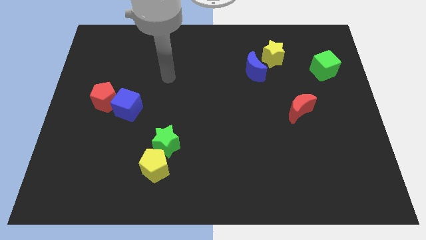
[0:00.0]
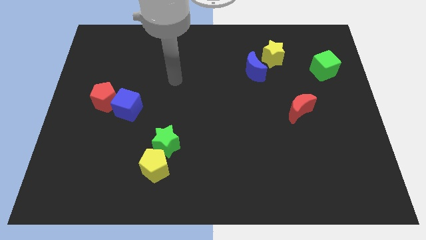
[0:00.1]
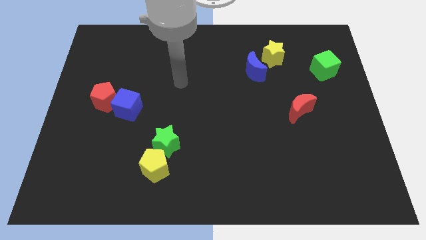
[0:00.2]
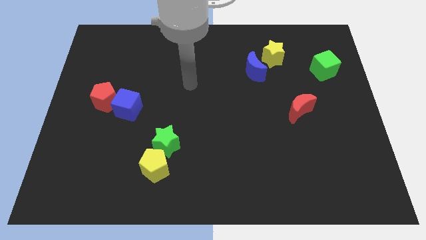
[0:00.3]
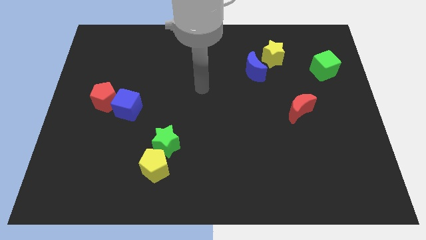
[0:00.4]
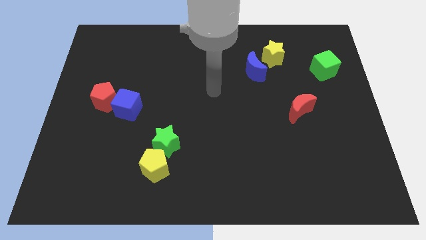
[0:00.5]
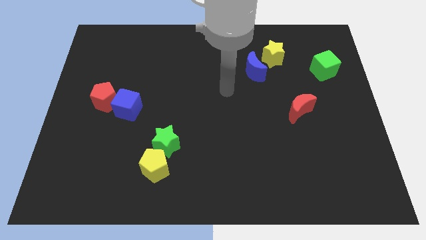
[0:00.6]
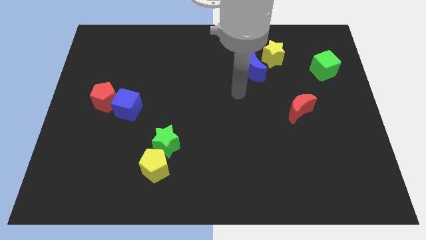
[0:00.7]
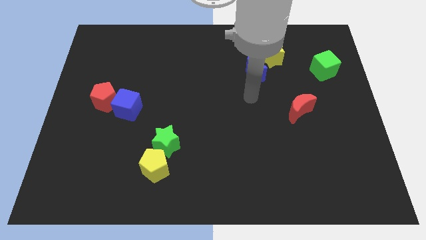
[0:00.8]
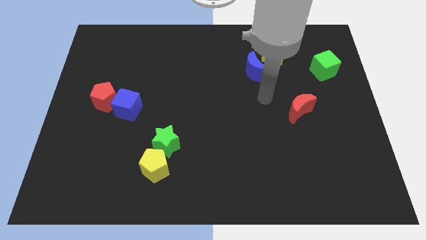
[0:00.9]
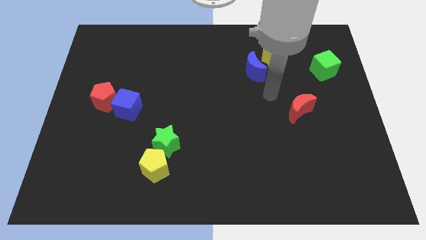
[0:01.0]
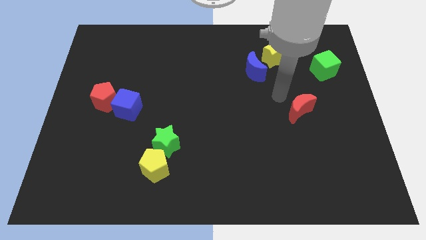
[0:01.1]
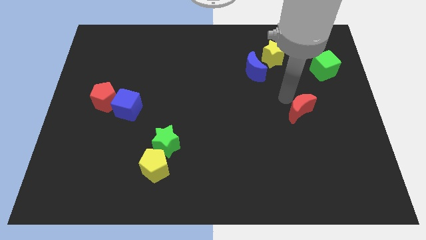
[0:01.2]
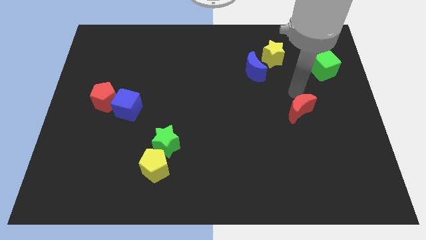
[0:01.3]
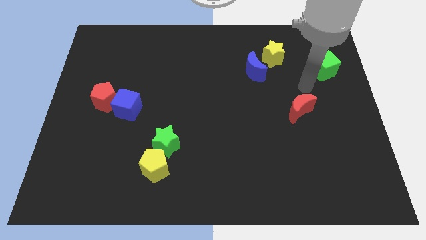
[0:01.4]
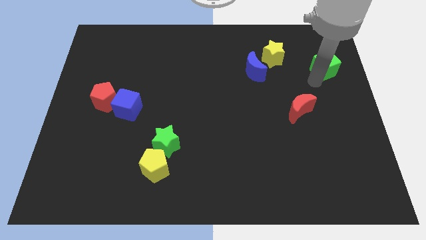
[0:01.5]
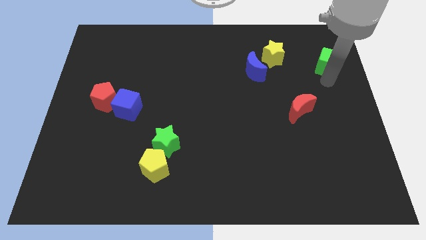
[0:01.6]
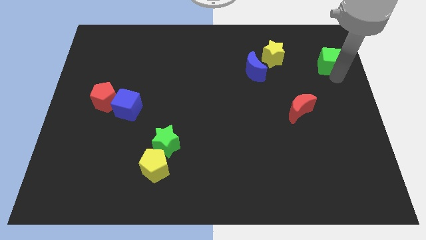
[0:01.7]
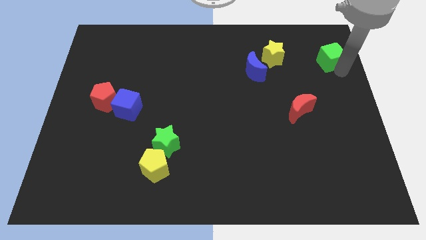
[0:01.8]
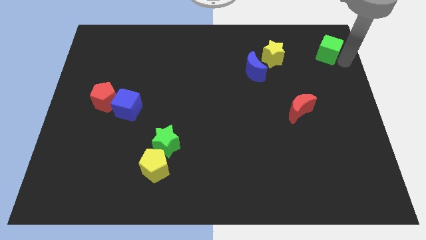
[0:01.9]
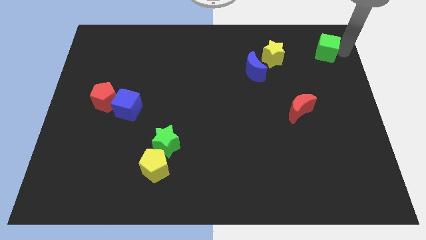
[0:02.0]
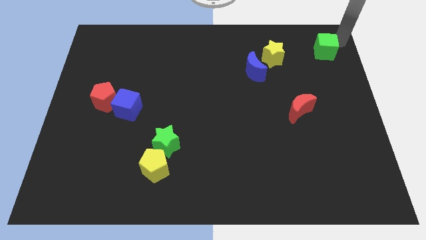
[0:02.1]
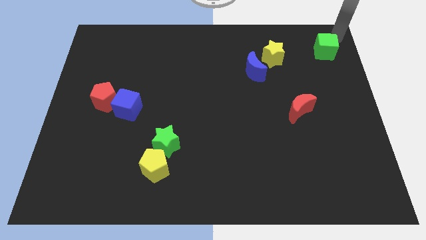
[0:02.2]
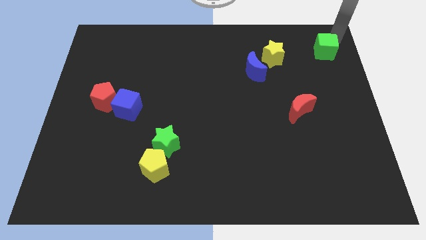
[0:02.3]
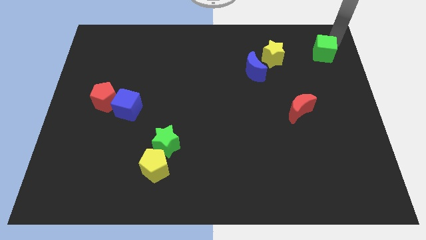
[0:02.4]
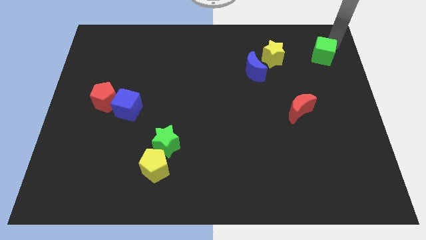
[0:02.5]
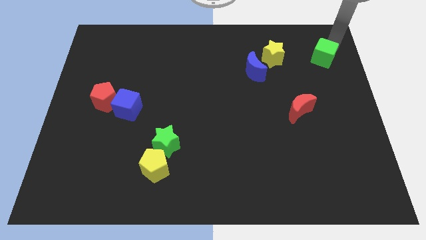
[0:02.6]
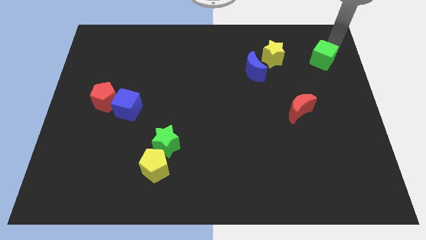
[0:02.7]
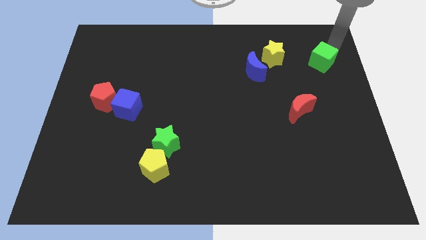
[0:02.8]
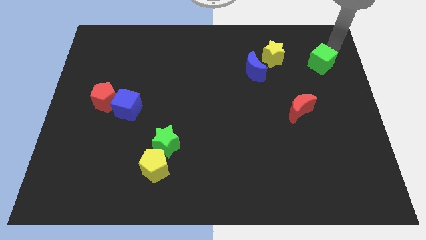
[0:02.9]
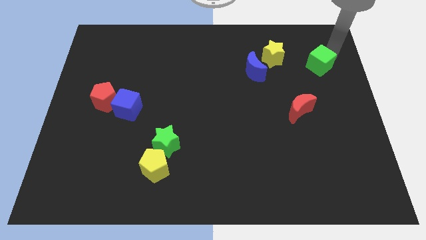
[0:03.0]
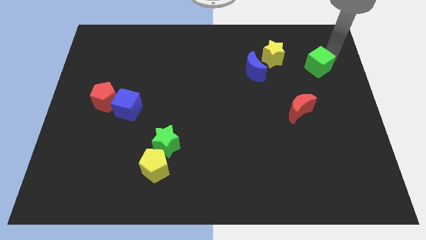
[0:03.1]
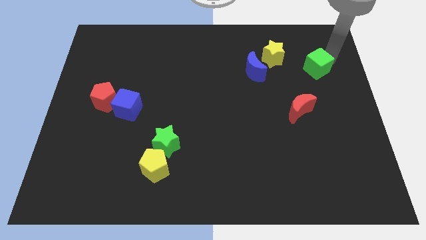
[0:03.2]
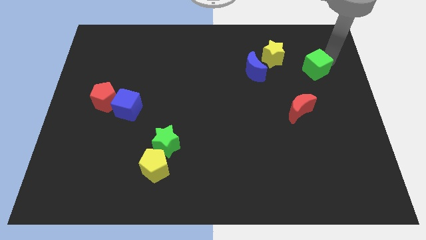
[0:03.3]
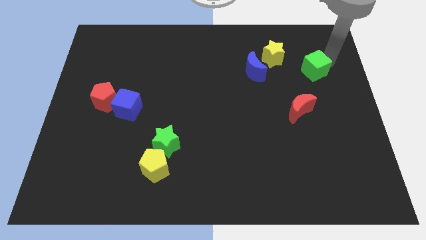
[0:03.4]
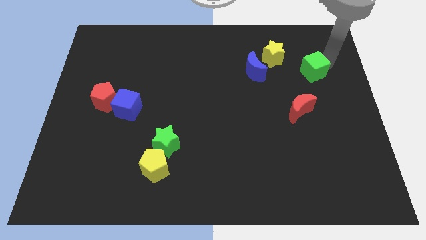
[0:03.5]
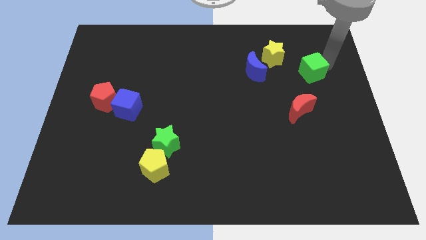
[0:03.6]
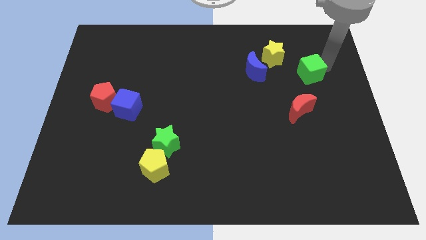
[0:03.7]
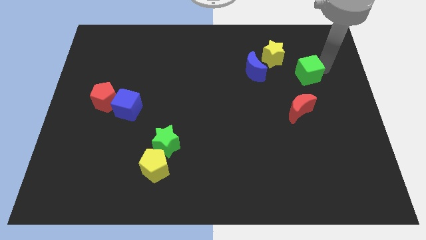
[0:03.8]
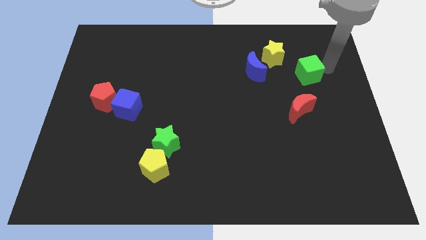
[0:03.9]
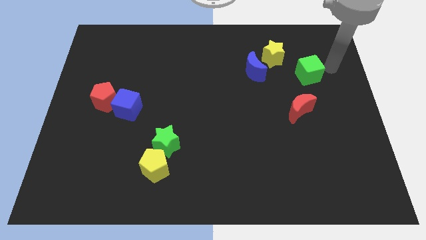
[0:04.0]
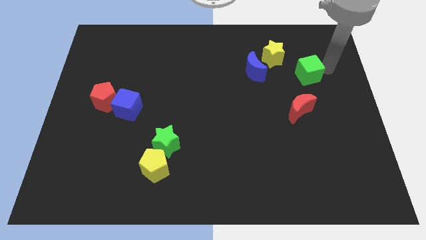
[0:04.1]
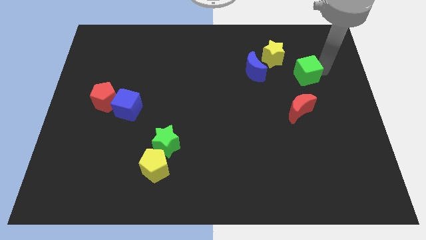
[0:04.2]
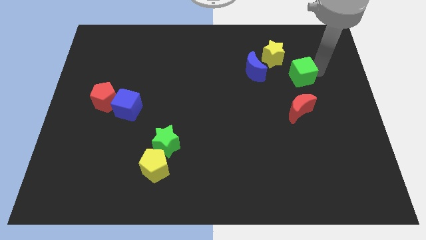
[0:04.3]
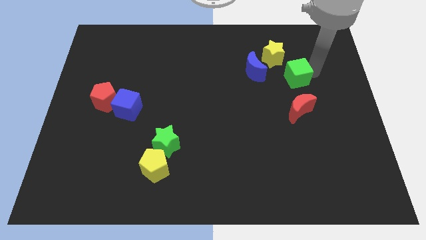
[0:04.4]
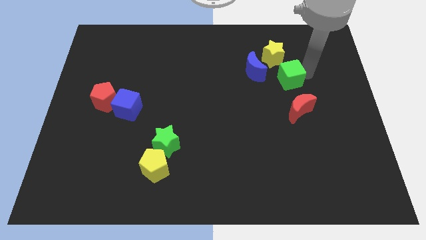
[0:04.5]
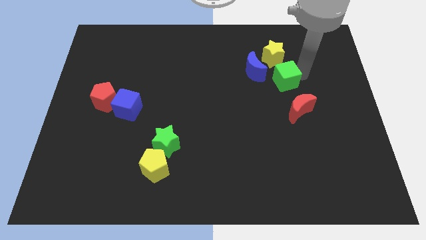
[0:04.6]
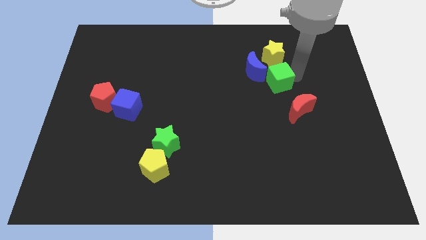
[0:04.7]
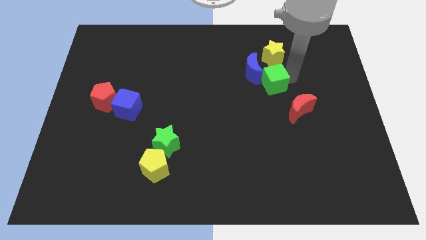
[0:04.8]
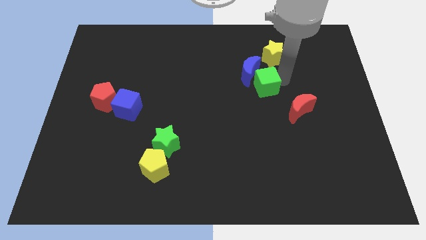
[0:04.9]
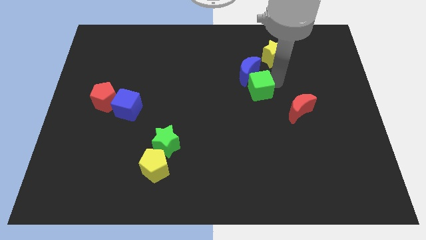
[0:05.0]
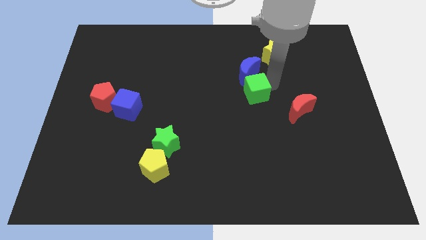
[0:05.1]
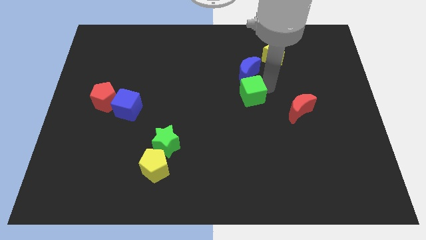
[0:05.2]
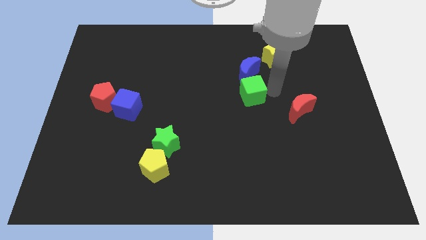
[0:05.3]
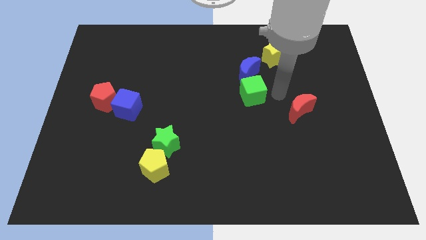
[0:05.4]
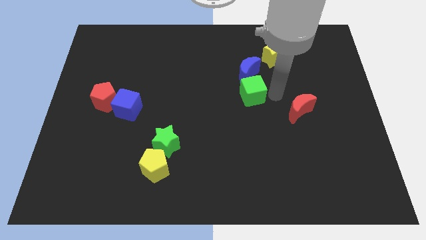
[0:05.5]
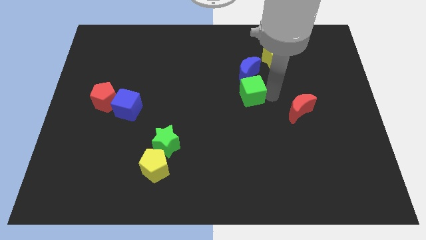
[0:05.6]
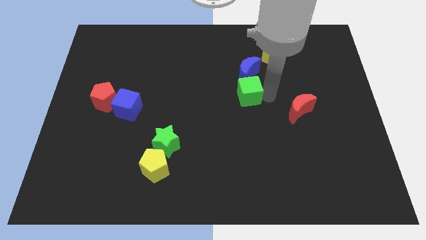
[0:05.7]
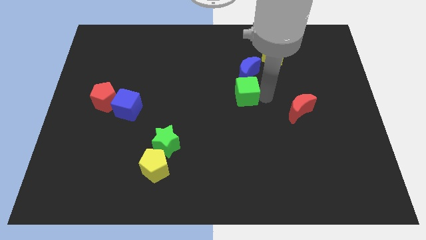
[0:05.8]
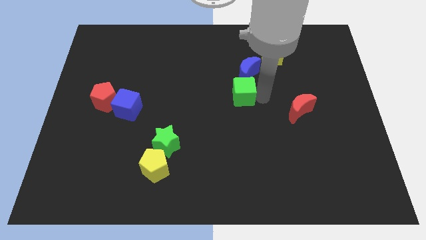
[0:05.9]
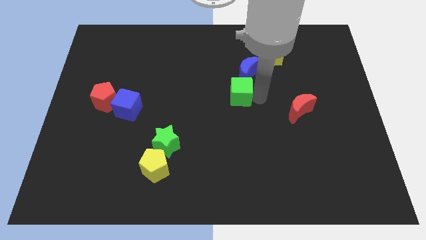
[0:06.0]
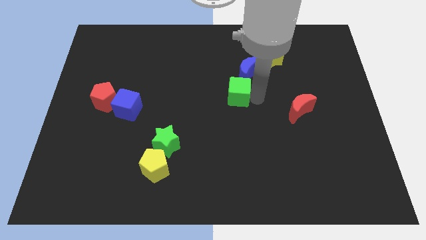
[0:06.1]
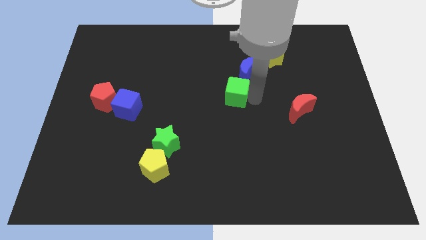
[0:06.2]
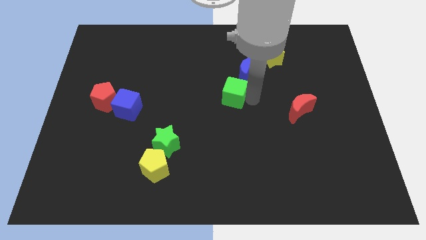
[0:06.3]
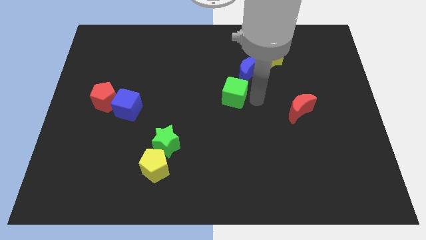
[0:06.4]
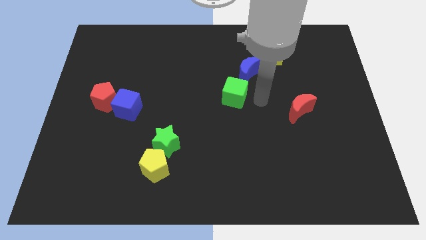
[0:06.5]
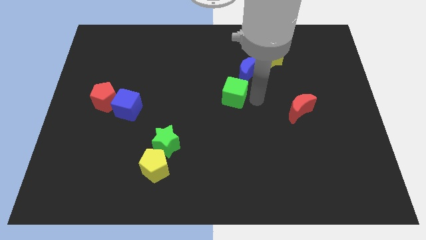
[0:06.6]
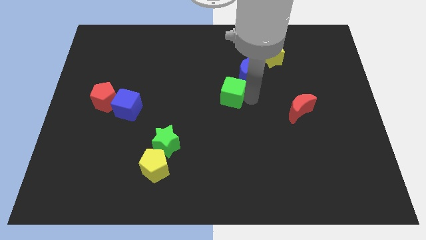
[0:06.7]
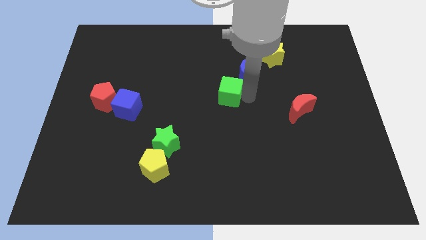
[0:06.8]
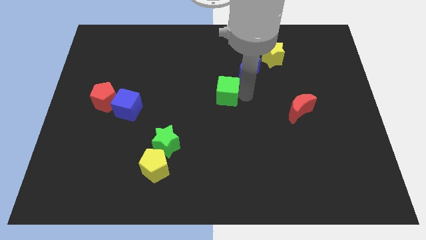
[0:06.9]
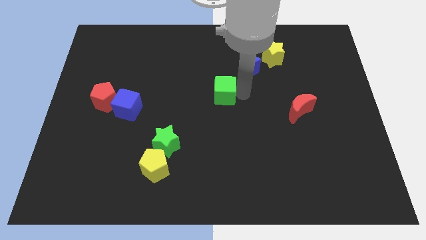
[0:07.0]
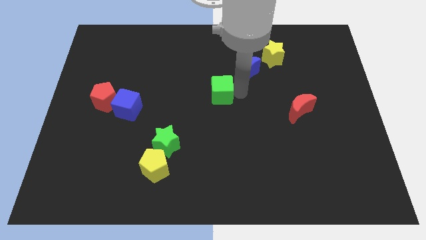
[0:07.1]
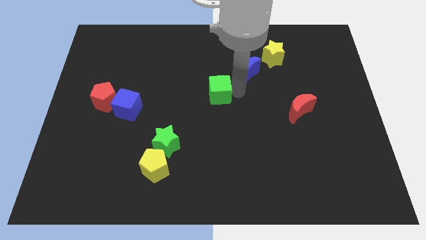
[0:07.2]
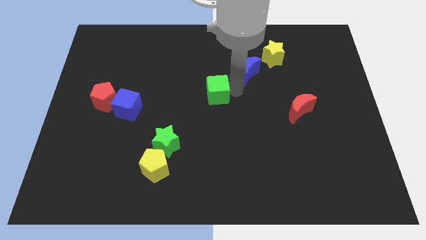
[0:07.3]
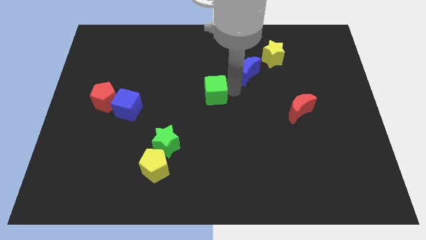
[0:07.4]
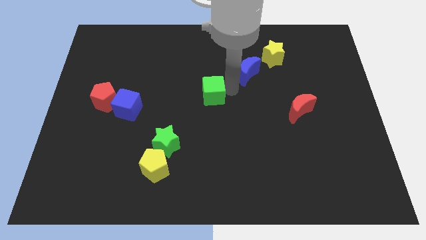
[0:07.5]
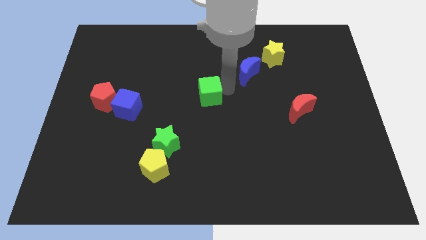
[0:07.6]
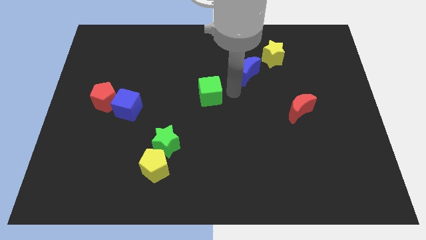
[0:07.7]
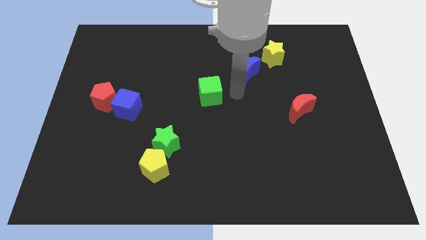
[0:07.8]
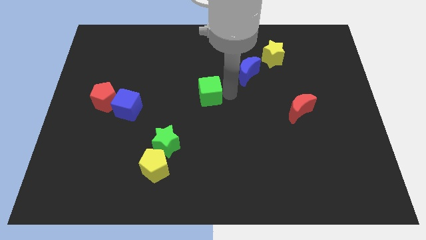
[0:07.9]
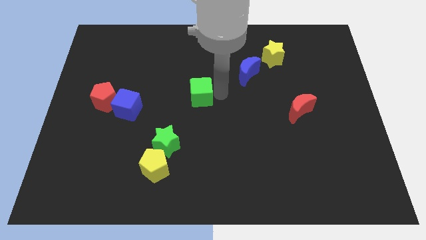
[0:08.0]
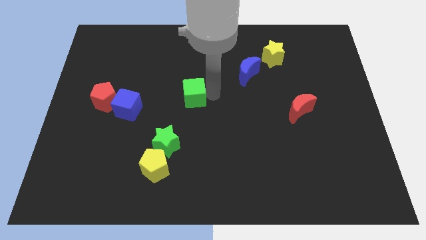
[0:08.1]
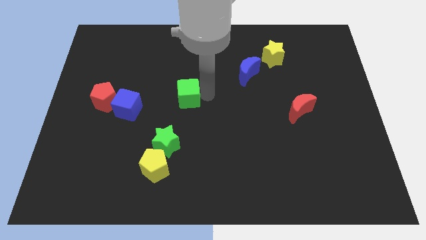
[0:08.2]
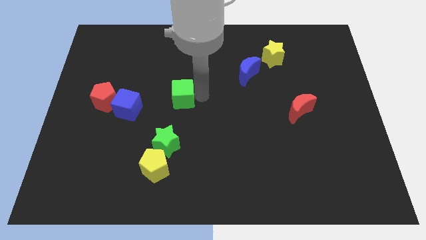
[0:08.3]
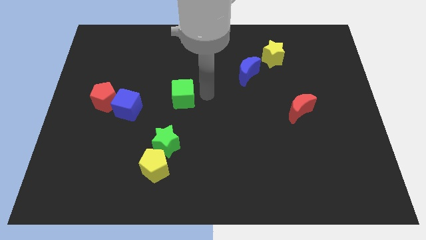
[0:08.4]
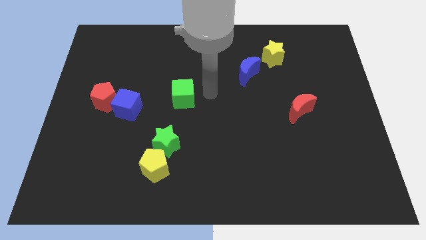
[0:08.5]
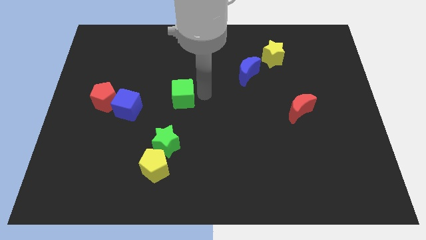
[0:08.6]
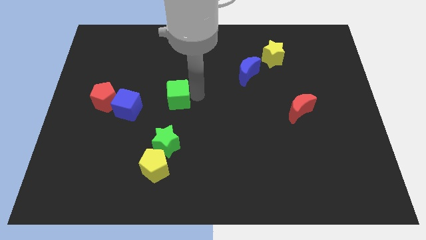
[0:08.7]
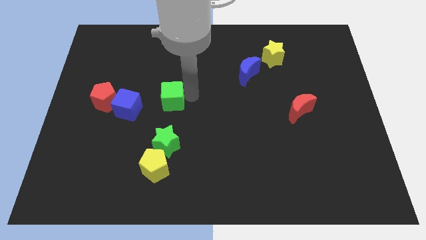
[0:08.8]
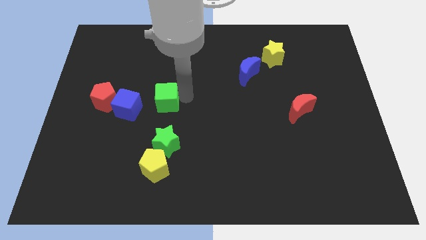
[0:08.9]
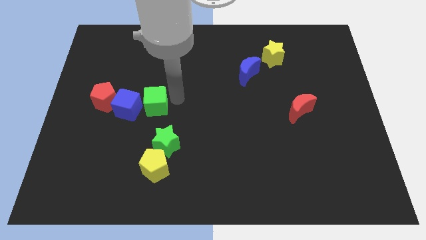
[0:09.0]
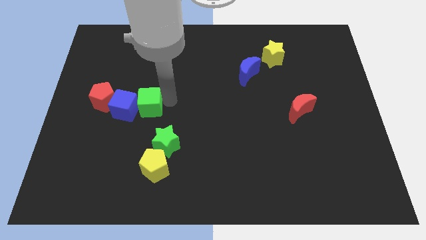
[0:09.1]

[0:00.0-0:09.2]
push the green cube towards the blue cube
